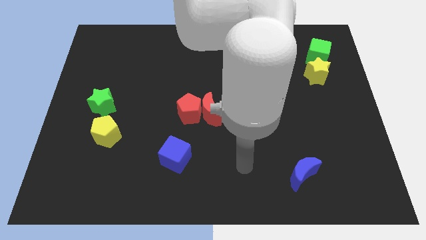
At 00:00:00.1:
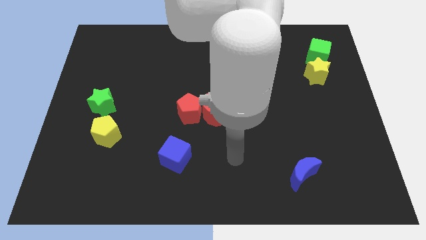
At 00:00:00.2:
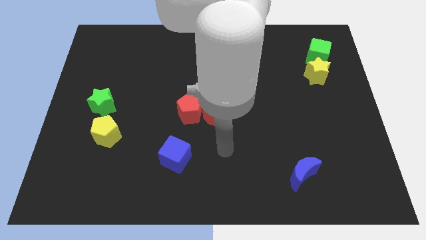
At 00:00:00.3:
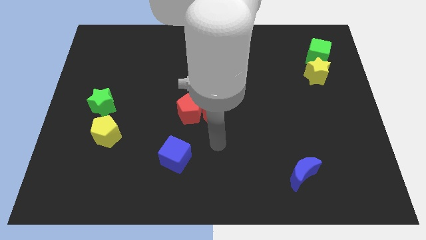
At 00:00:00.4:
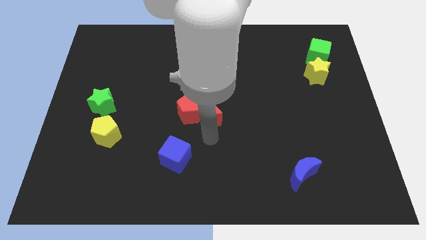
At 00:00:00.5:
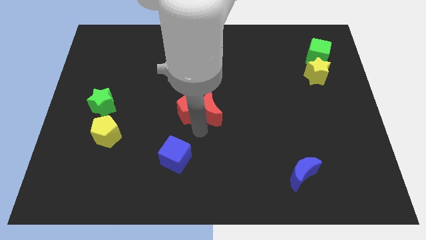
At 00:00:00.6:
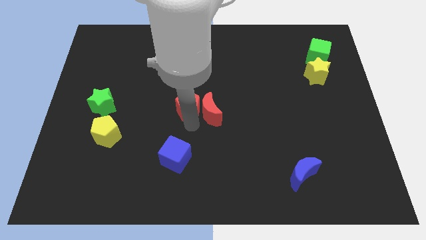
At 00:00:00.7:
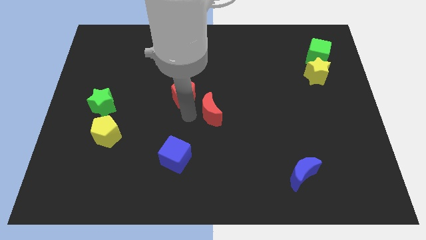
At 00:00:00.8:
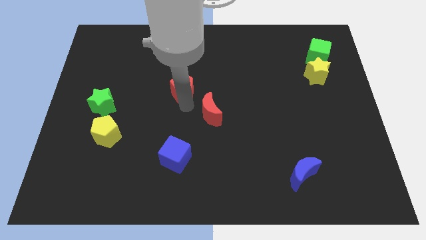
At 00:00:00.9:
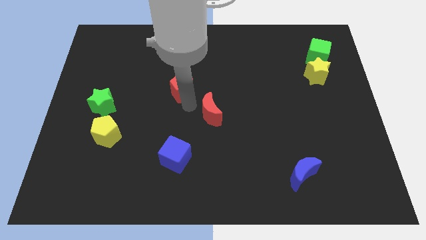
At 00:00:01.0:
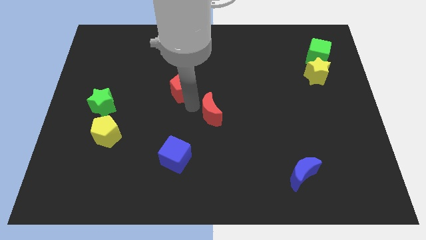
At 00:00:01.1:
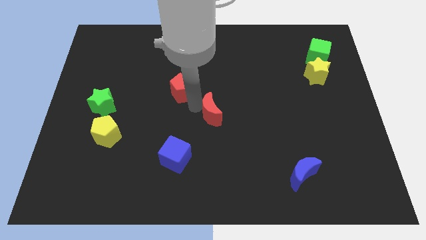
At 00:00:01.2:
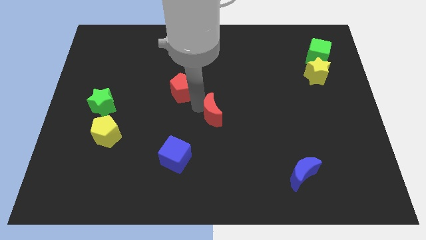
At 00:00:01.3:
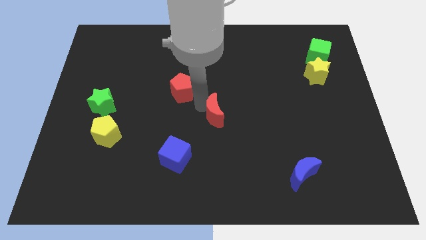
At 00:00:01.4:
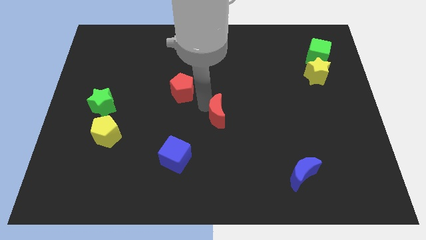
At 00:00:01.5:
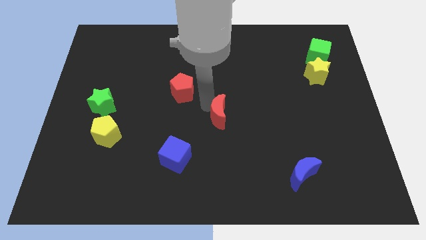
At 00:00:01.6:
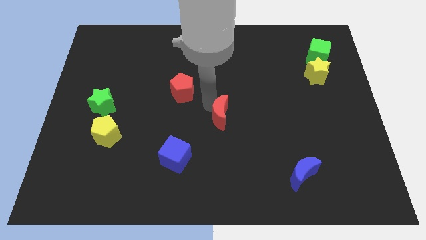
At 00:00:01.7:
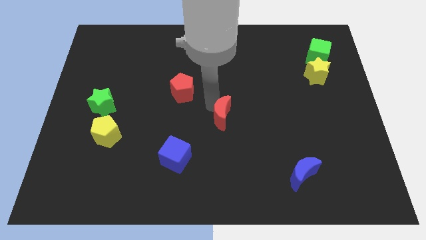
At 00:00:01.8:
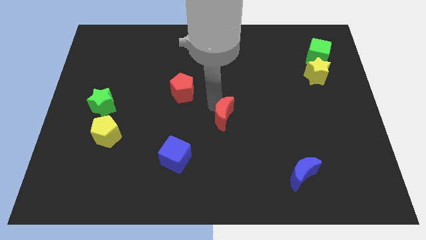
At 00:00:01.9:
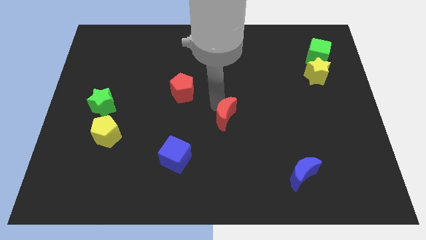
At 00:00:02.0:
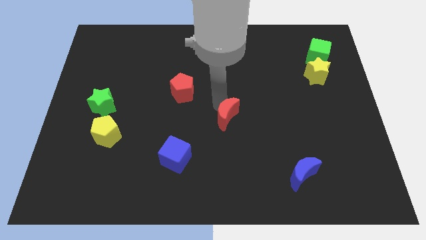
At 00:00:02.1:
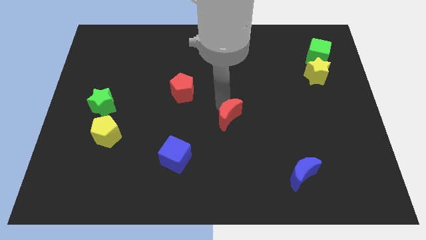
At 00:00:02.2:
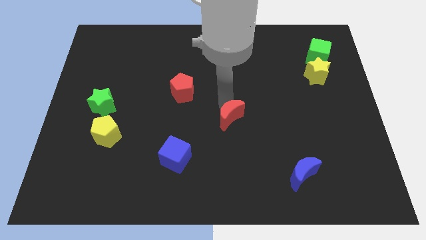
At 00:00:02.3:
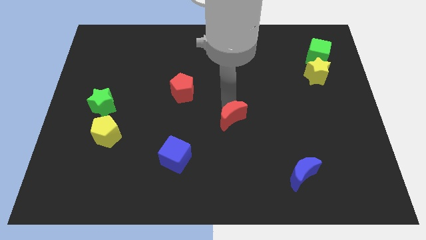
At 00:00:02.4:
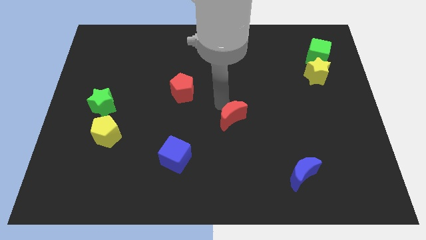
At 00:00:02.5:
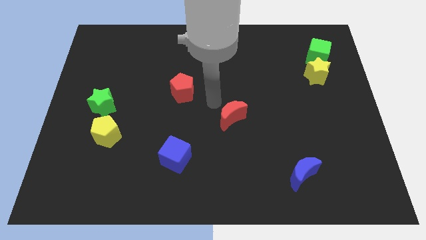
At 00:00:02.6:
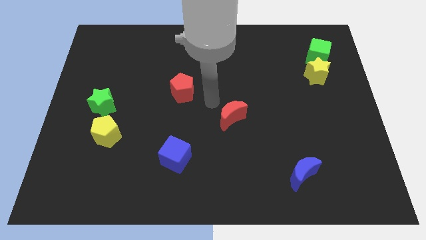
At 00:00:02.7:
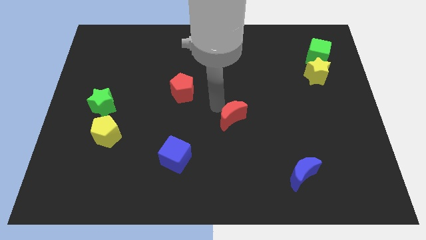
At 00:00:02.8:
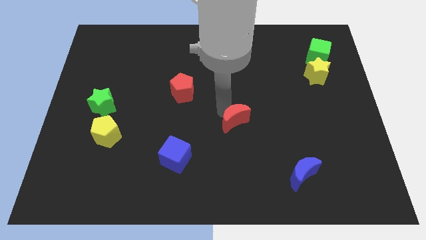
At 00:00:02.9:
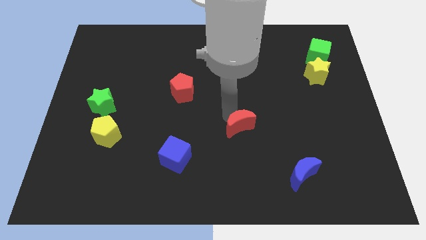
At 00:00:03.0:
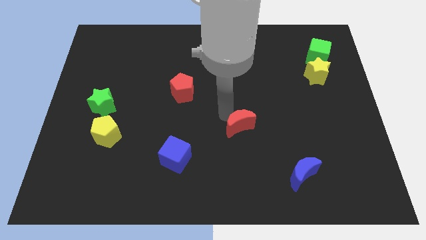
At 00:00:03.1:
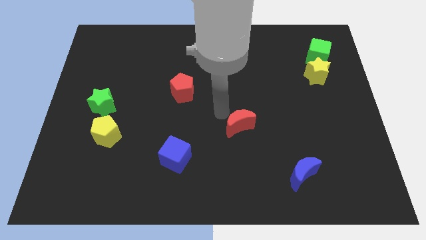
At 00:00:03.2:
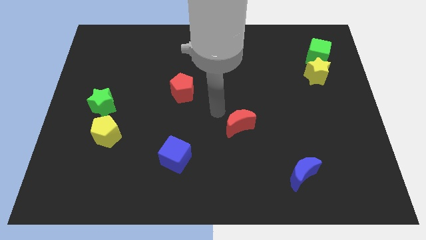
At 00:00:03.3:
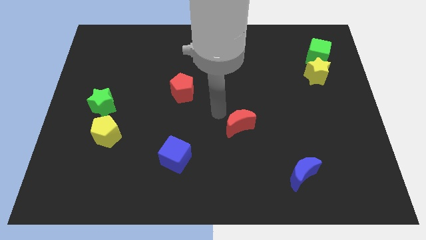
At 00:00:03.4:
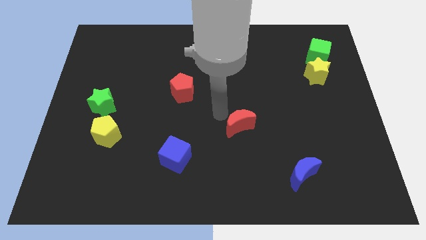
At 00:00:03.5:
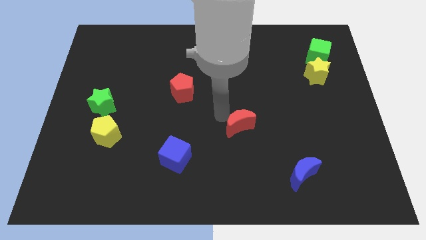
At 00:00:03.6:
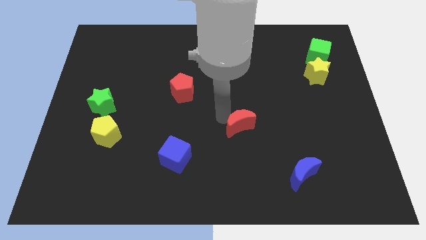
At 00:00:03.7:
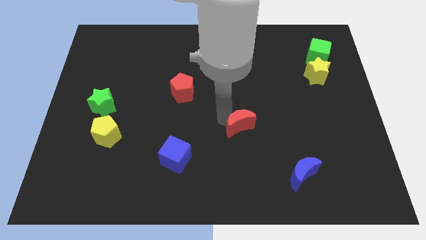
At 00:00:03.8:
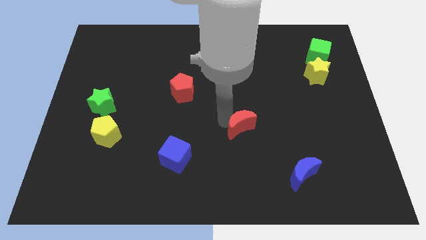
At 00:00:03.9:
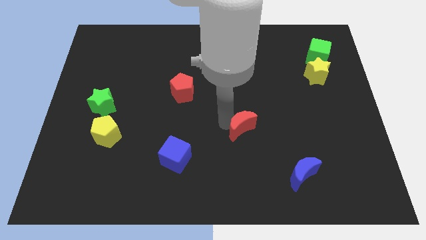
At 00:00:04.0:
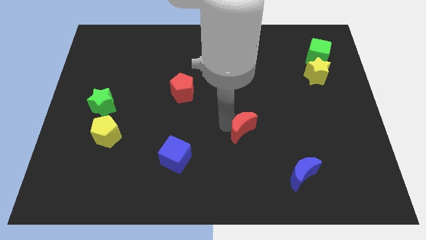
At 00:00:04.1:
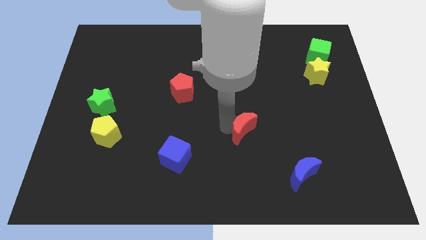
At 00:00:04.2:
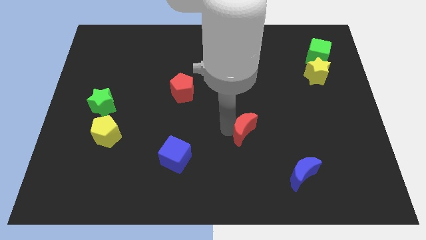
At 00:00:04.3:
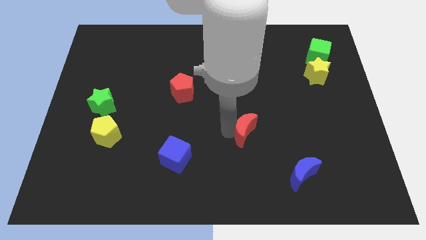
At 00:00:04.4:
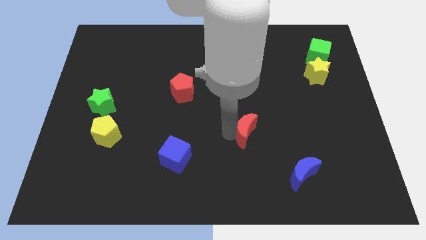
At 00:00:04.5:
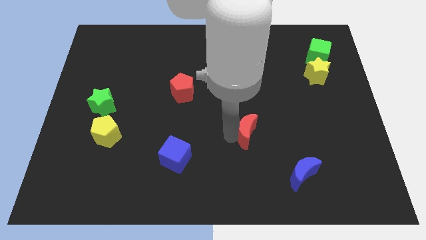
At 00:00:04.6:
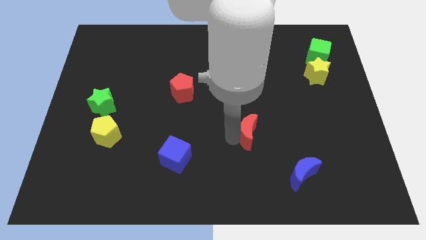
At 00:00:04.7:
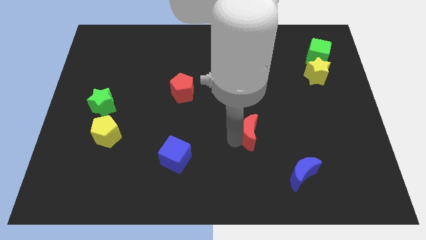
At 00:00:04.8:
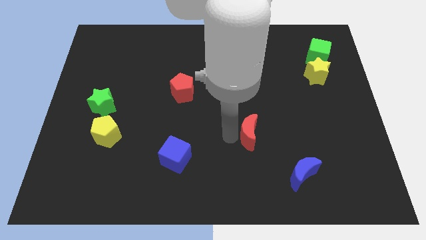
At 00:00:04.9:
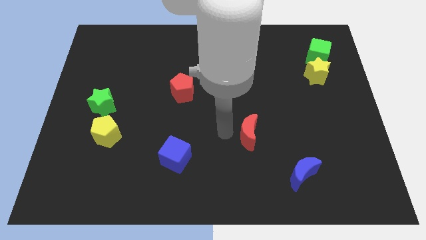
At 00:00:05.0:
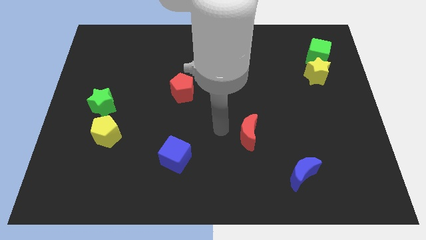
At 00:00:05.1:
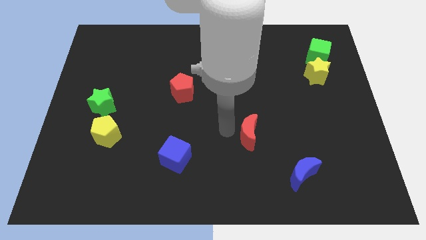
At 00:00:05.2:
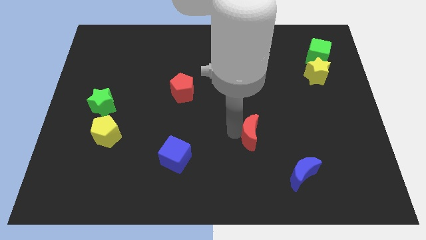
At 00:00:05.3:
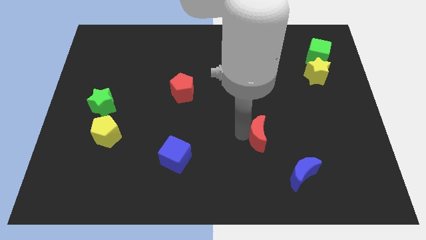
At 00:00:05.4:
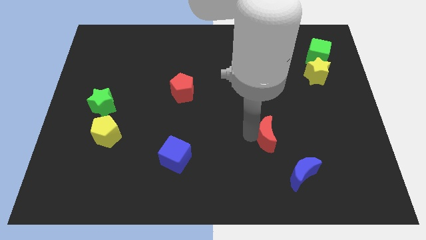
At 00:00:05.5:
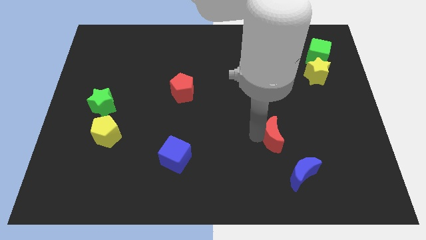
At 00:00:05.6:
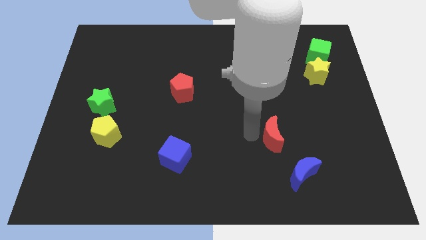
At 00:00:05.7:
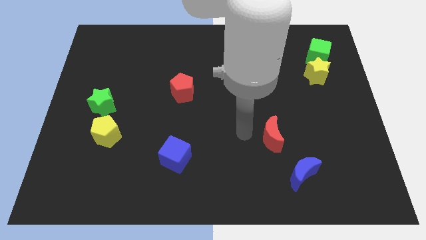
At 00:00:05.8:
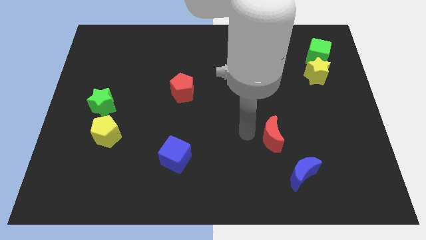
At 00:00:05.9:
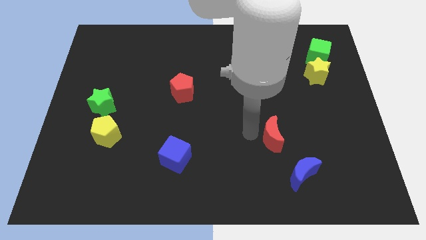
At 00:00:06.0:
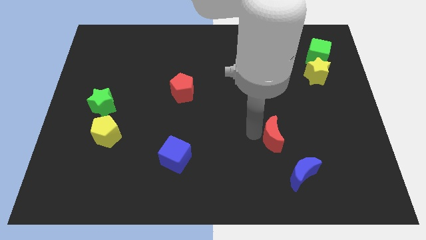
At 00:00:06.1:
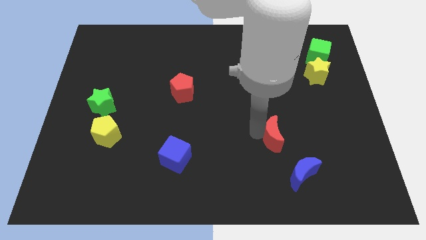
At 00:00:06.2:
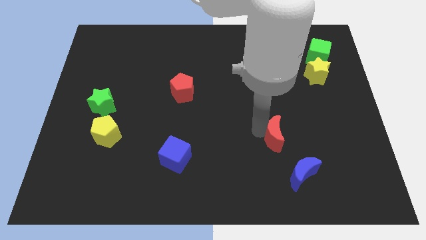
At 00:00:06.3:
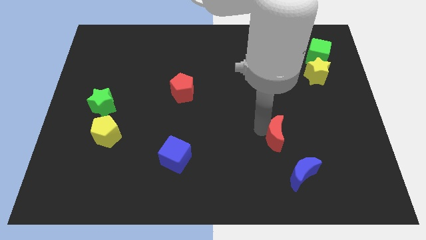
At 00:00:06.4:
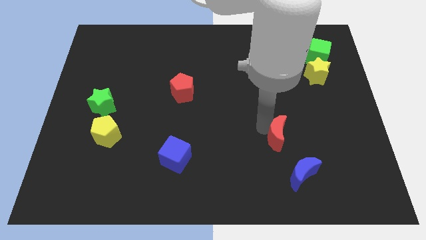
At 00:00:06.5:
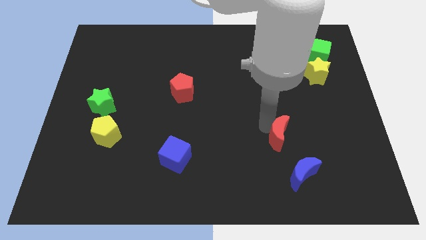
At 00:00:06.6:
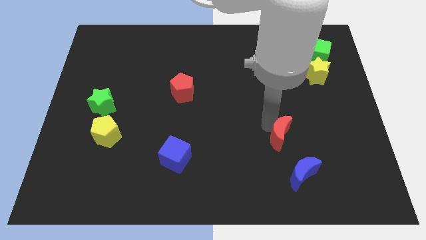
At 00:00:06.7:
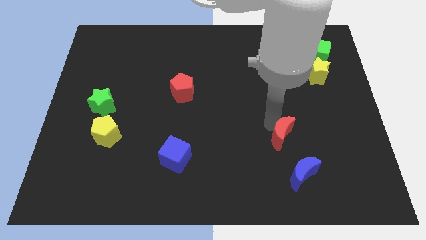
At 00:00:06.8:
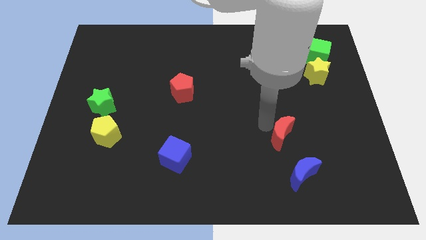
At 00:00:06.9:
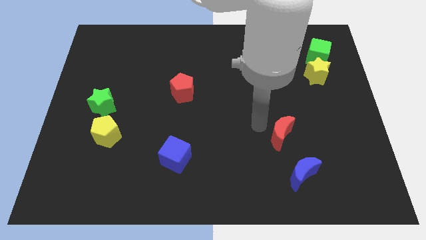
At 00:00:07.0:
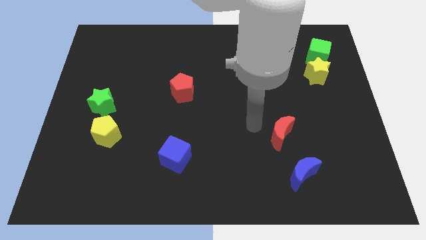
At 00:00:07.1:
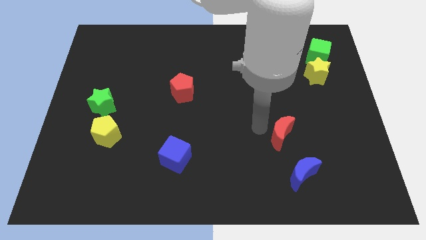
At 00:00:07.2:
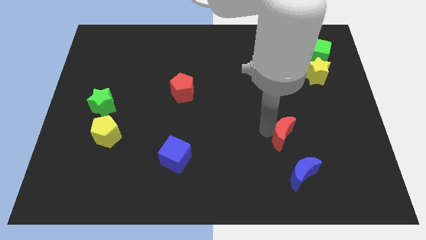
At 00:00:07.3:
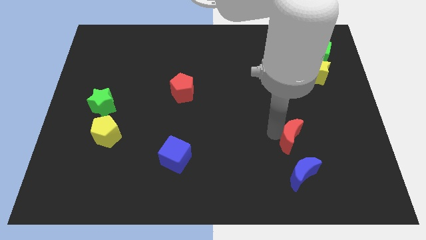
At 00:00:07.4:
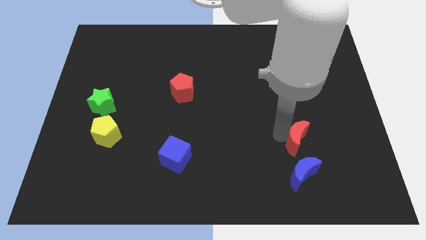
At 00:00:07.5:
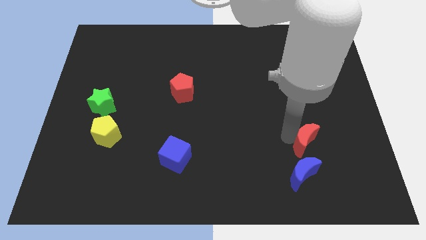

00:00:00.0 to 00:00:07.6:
push the red moon diagonally up and to the right of the blue moon
